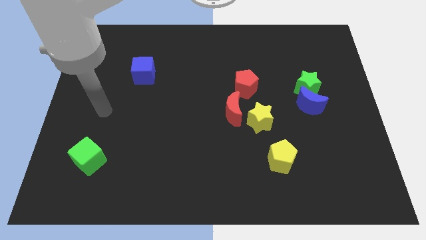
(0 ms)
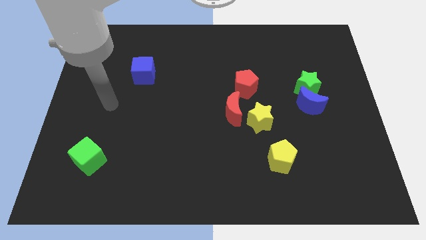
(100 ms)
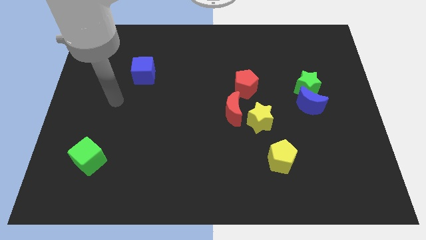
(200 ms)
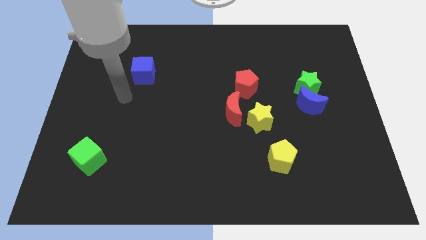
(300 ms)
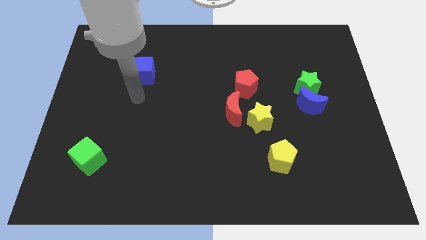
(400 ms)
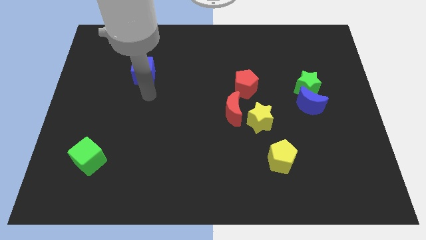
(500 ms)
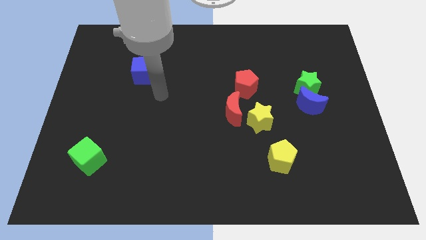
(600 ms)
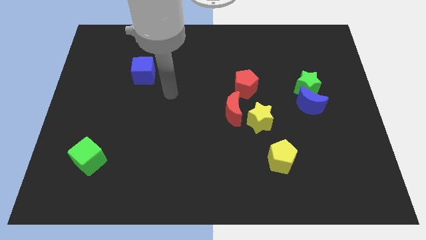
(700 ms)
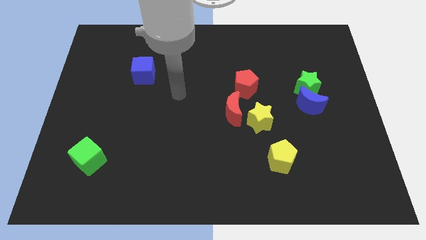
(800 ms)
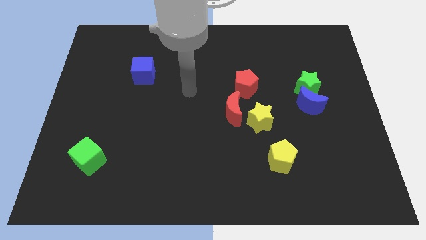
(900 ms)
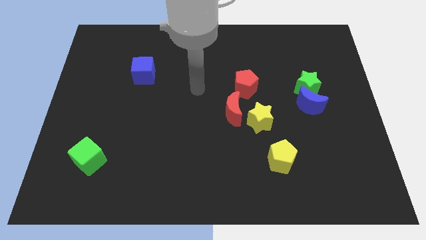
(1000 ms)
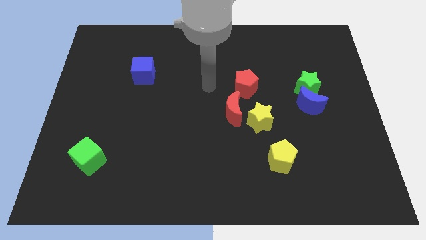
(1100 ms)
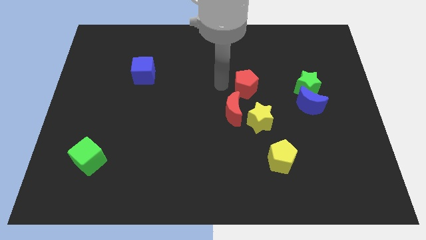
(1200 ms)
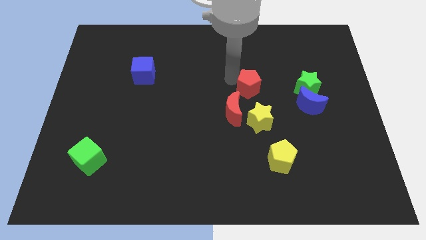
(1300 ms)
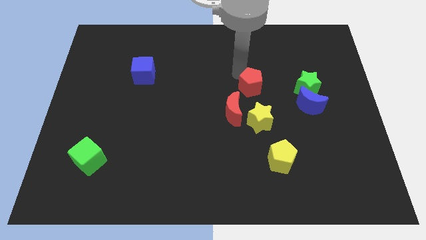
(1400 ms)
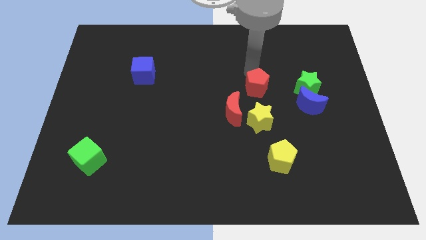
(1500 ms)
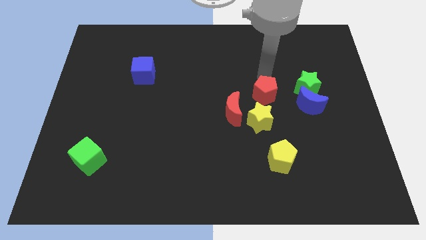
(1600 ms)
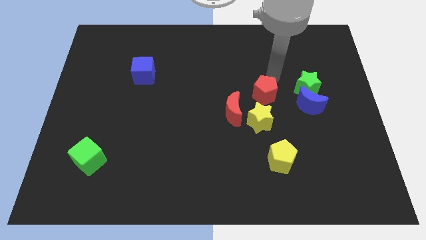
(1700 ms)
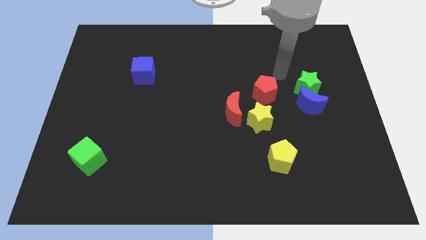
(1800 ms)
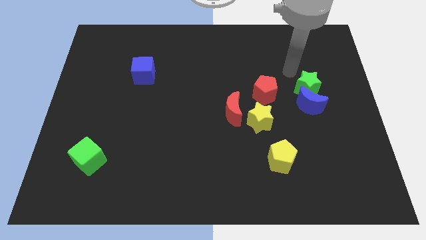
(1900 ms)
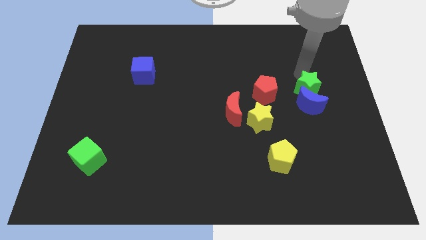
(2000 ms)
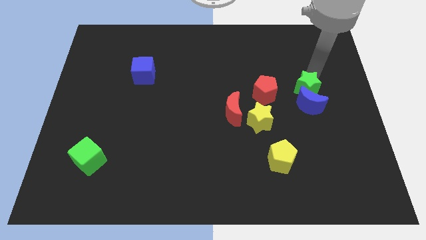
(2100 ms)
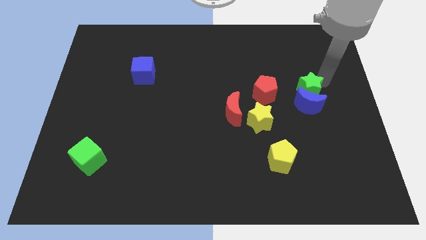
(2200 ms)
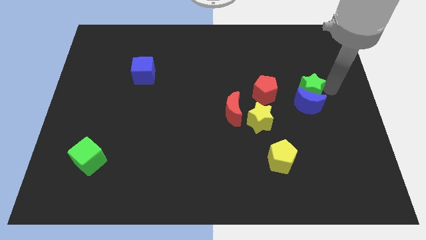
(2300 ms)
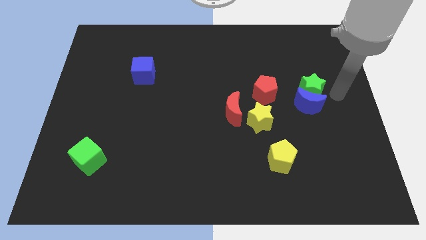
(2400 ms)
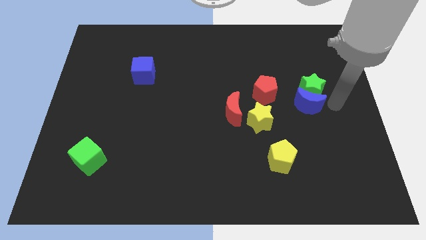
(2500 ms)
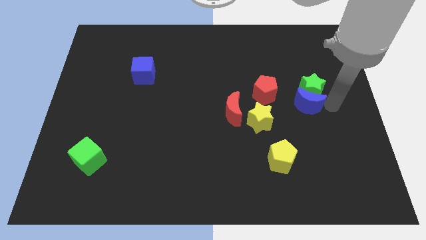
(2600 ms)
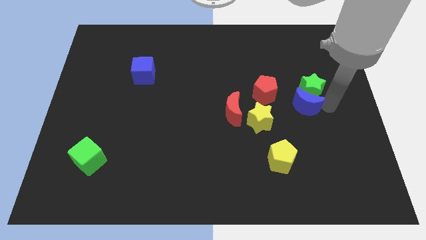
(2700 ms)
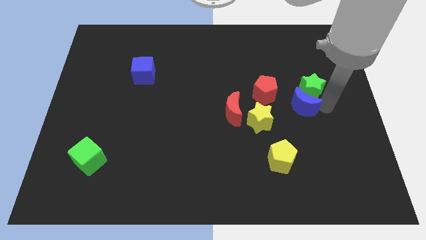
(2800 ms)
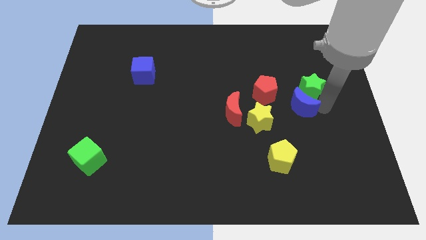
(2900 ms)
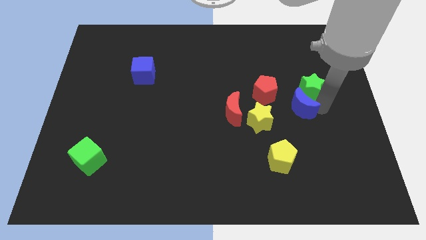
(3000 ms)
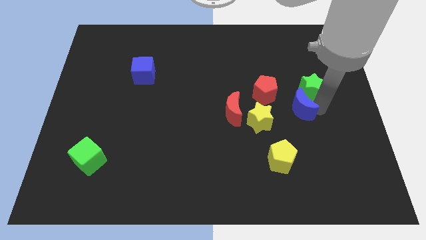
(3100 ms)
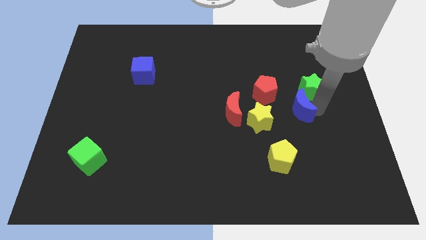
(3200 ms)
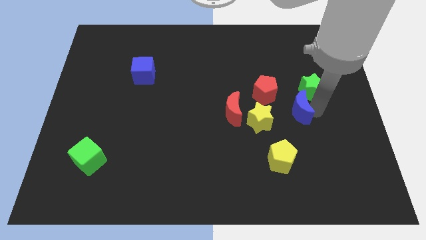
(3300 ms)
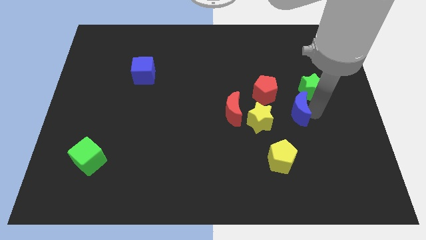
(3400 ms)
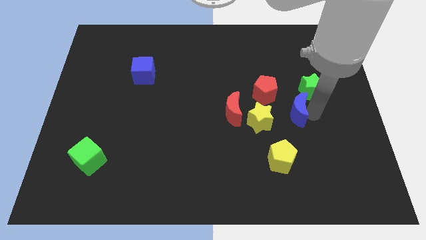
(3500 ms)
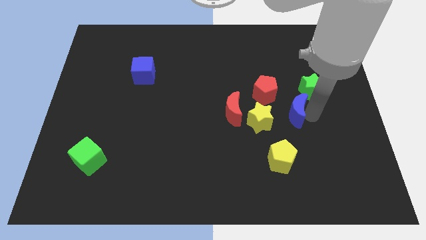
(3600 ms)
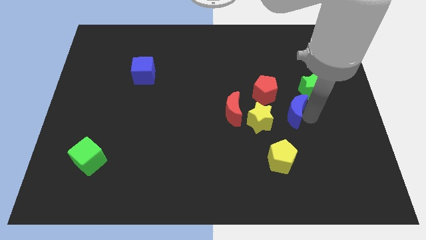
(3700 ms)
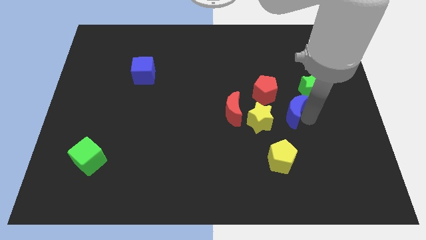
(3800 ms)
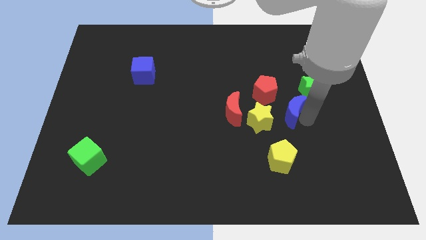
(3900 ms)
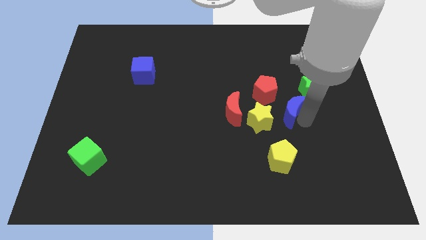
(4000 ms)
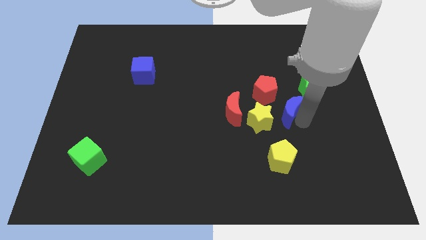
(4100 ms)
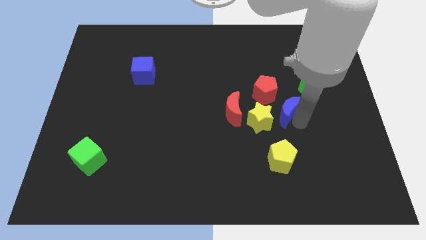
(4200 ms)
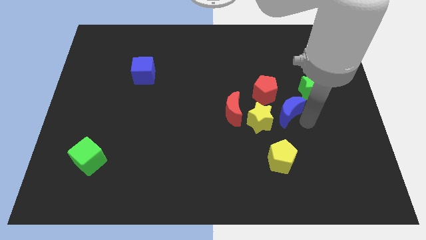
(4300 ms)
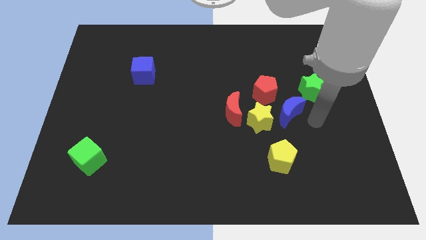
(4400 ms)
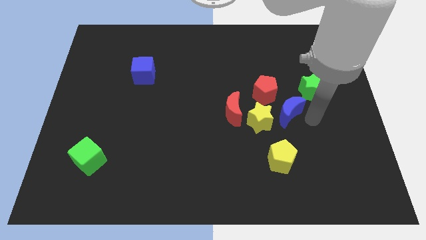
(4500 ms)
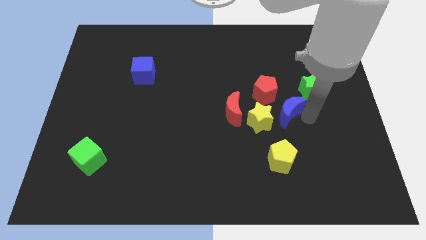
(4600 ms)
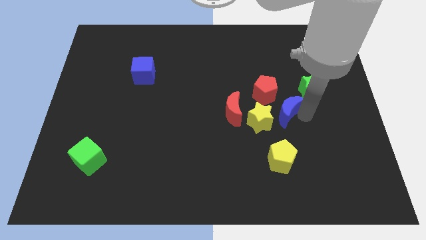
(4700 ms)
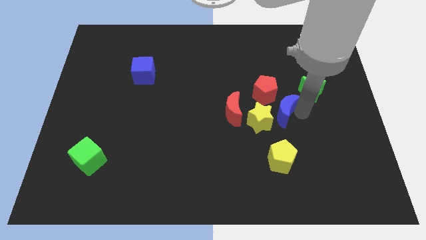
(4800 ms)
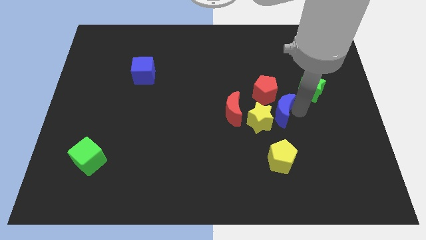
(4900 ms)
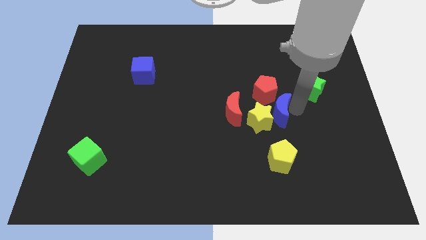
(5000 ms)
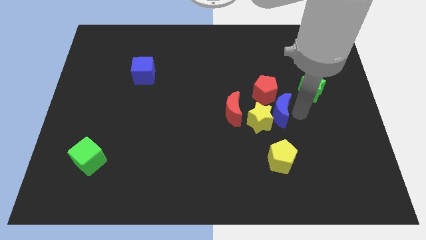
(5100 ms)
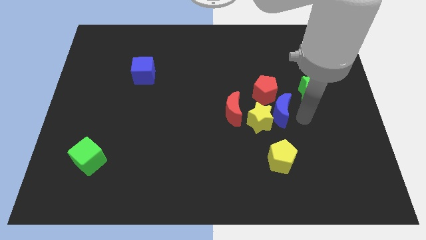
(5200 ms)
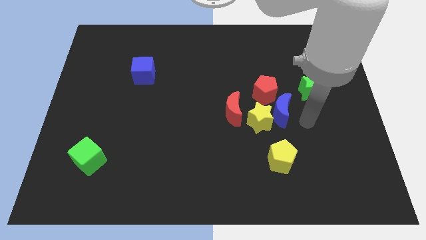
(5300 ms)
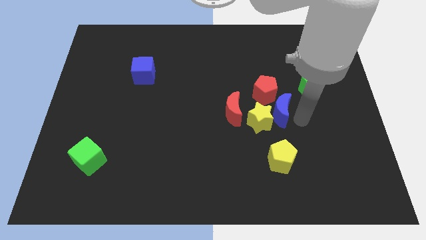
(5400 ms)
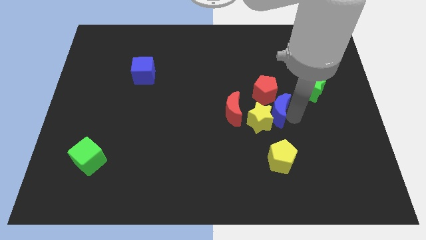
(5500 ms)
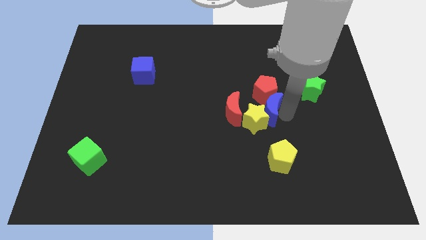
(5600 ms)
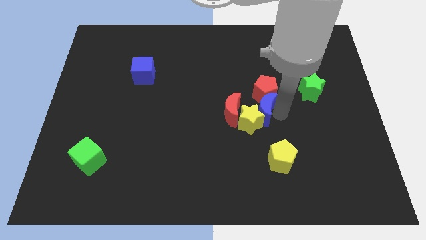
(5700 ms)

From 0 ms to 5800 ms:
put the blue moon to the middle of the board

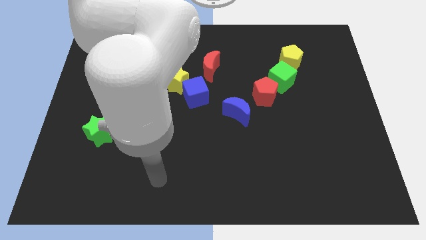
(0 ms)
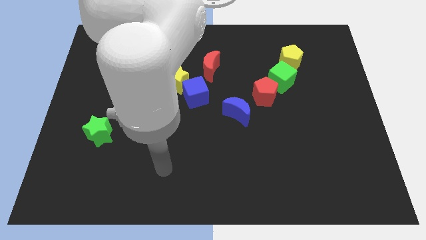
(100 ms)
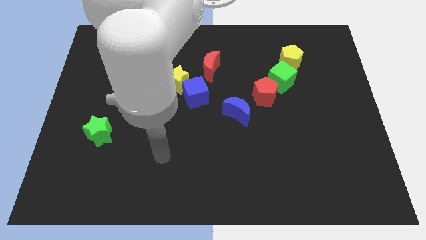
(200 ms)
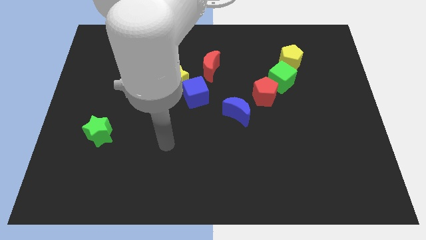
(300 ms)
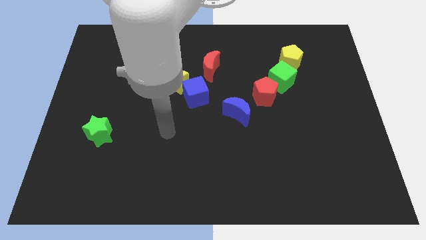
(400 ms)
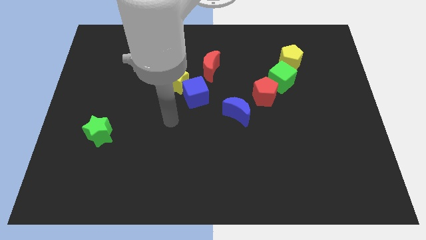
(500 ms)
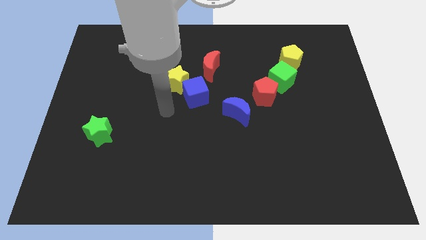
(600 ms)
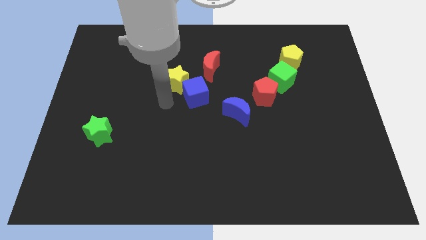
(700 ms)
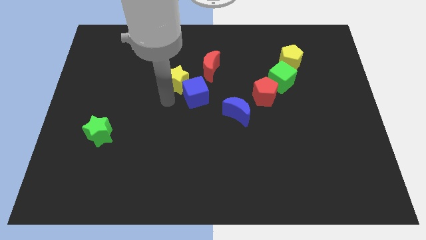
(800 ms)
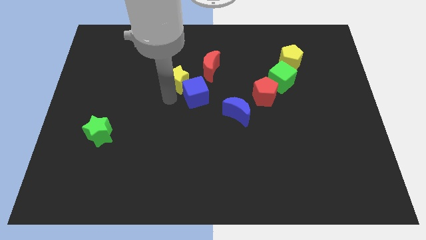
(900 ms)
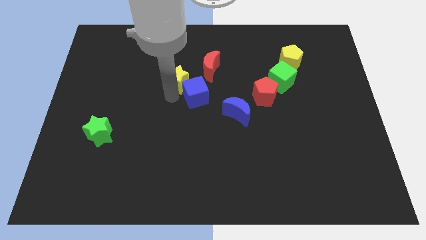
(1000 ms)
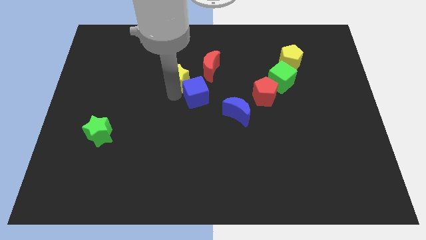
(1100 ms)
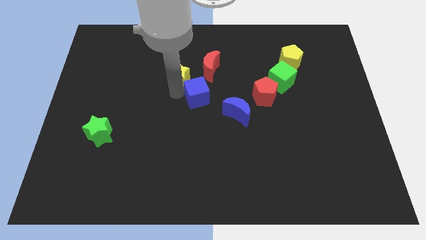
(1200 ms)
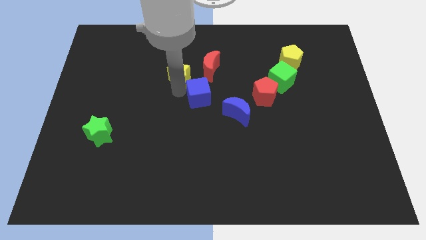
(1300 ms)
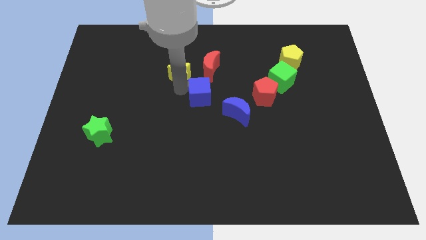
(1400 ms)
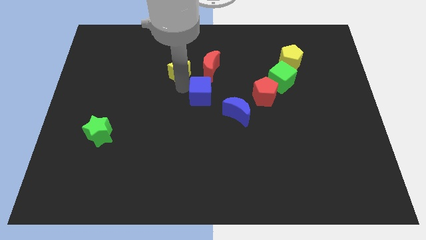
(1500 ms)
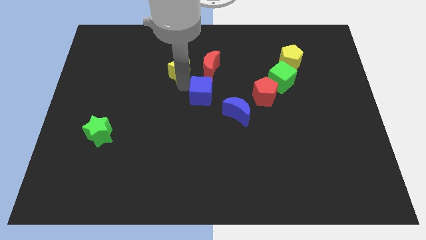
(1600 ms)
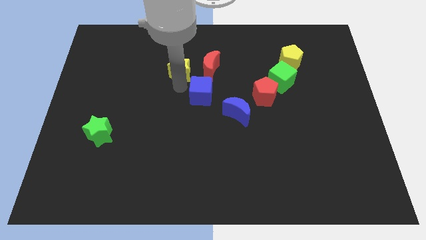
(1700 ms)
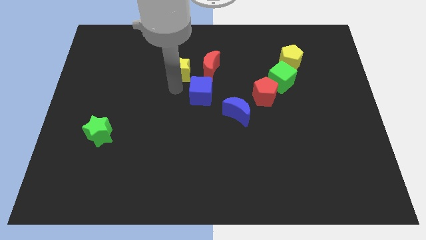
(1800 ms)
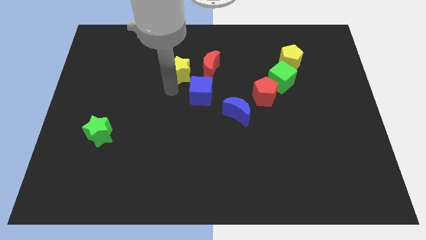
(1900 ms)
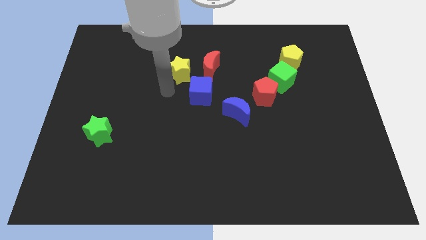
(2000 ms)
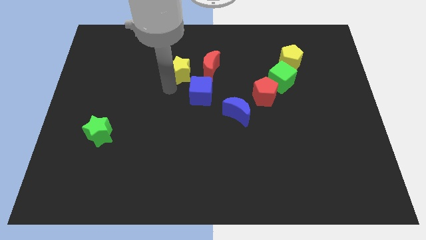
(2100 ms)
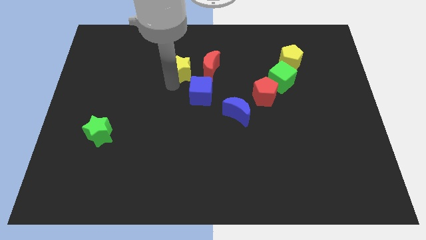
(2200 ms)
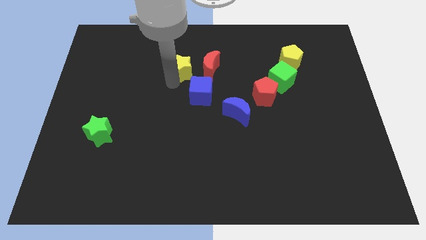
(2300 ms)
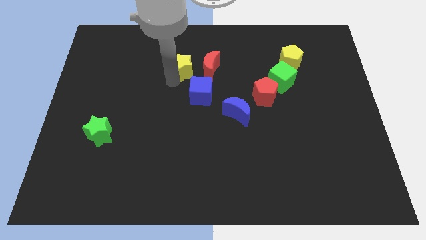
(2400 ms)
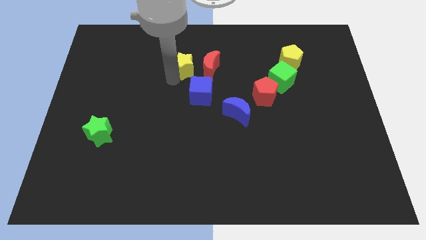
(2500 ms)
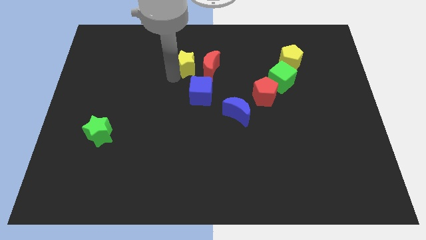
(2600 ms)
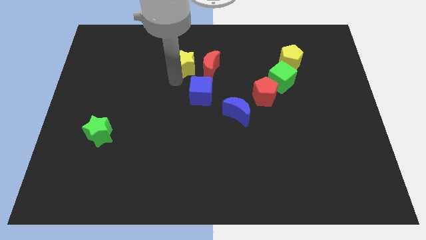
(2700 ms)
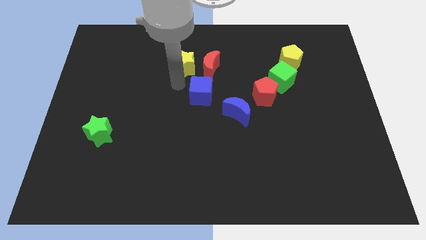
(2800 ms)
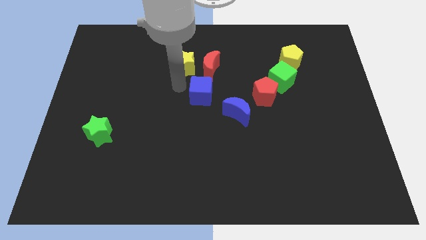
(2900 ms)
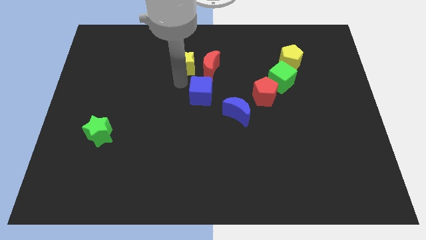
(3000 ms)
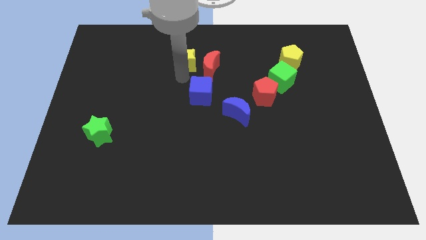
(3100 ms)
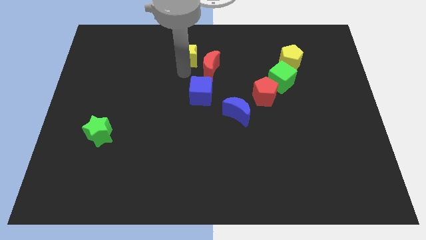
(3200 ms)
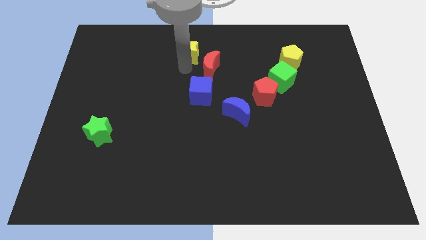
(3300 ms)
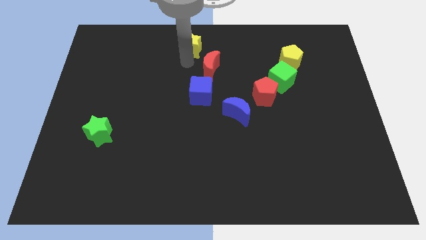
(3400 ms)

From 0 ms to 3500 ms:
move the yellow star to the top
